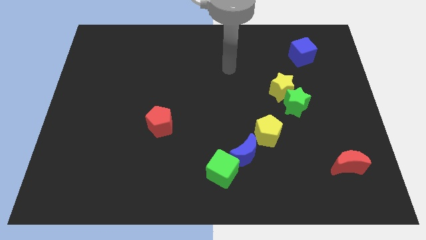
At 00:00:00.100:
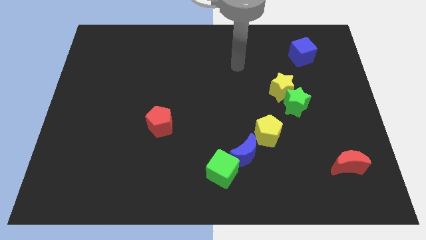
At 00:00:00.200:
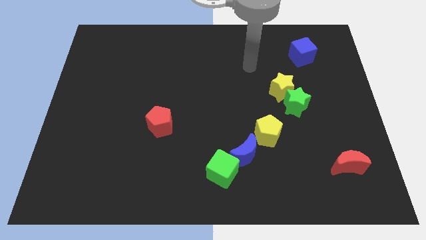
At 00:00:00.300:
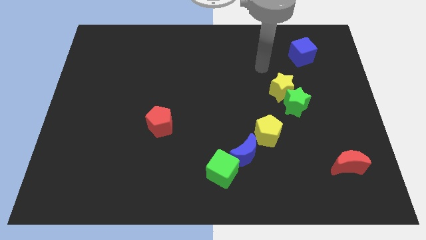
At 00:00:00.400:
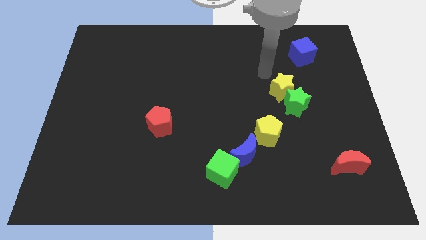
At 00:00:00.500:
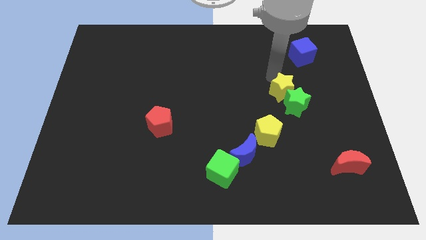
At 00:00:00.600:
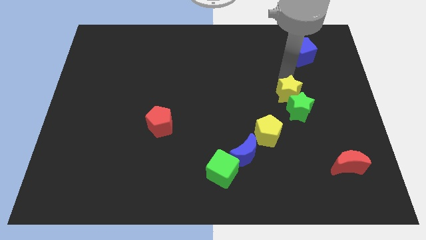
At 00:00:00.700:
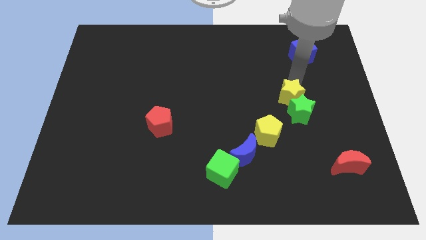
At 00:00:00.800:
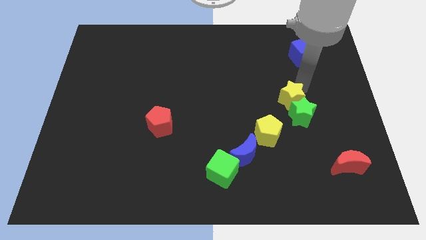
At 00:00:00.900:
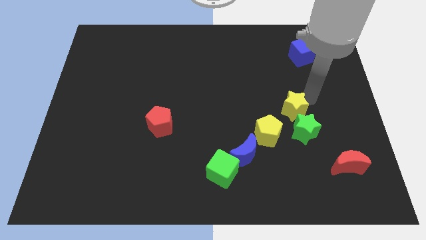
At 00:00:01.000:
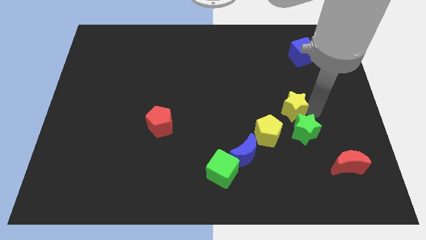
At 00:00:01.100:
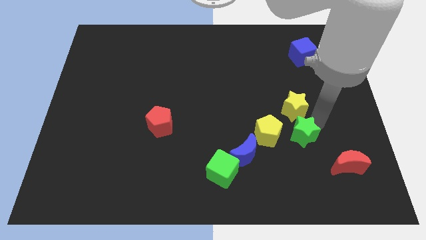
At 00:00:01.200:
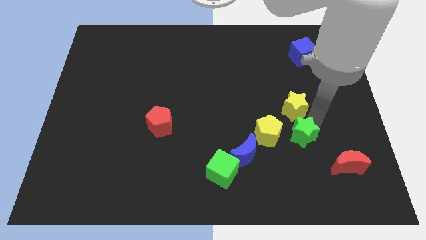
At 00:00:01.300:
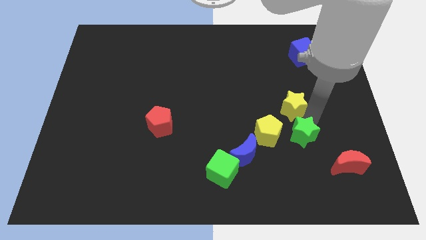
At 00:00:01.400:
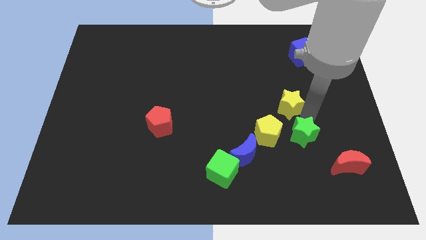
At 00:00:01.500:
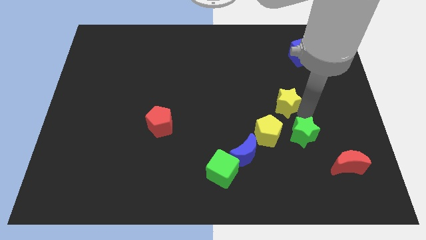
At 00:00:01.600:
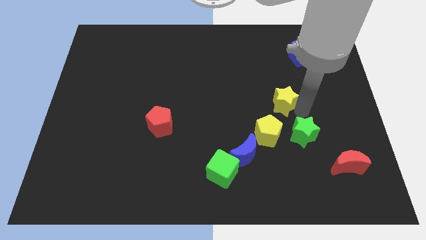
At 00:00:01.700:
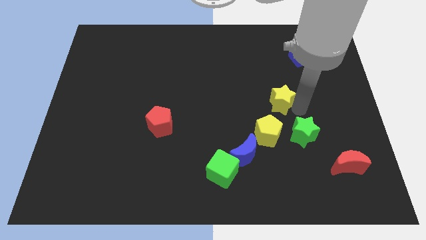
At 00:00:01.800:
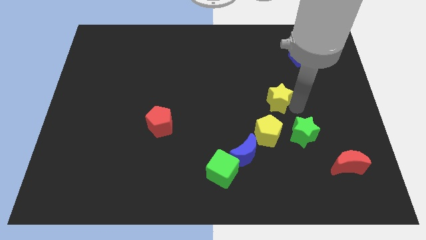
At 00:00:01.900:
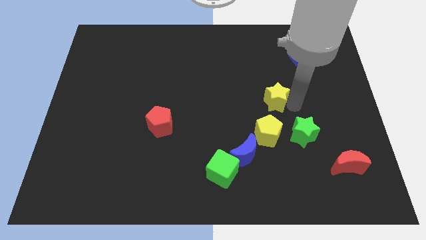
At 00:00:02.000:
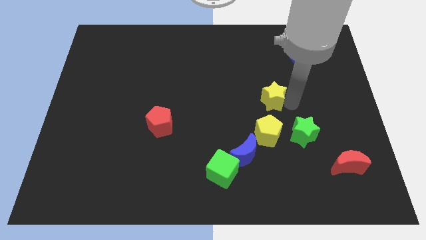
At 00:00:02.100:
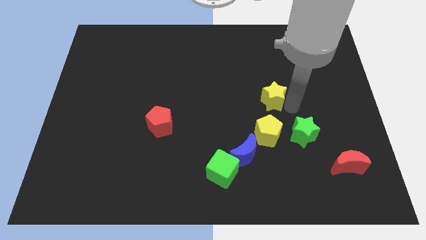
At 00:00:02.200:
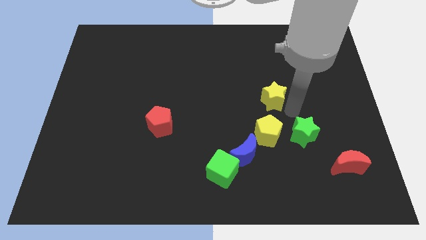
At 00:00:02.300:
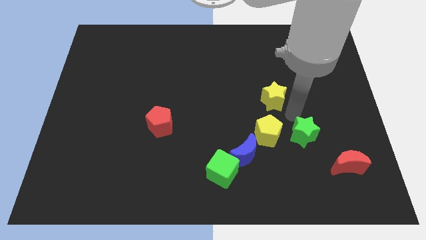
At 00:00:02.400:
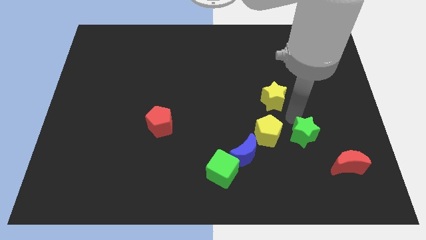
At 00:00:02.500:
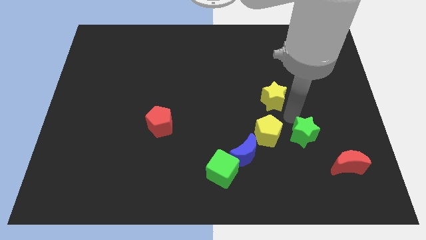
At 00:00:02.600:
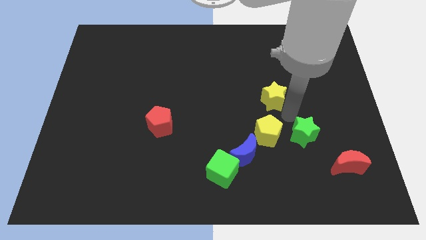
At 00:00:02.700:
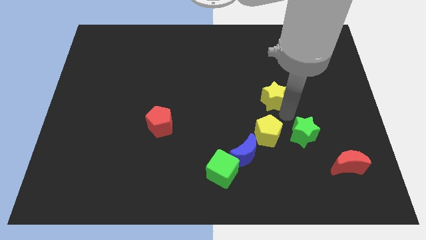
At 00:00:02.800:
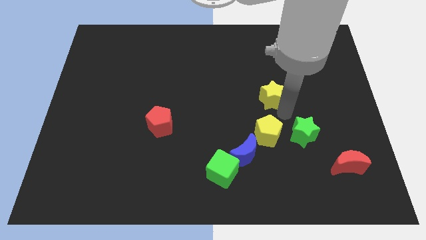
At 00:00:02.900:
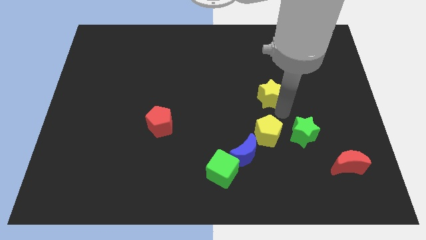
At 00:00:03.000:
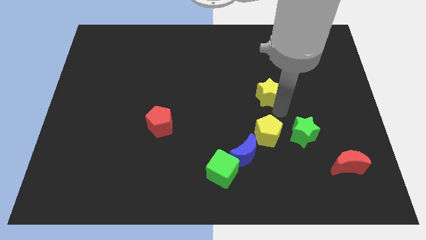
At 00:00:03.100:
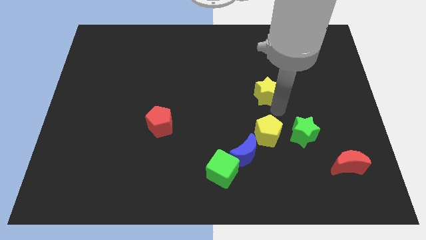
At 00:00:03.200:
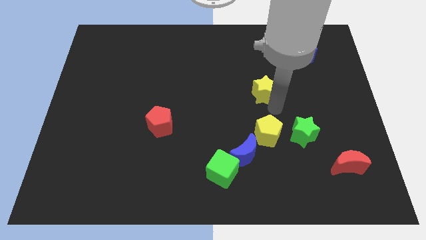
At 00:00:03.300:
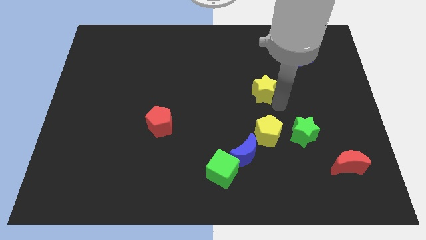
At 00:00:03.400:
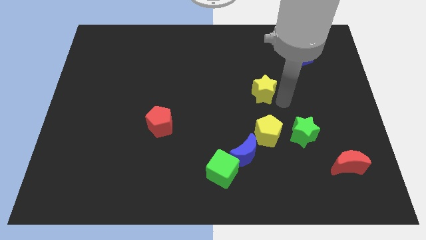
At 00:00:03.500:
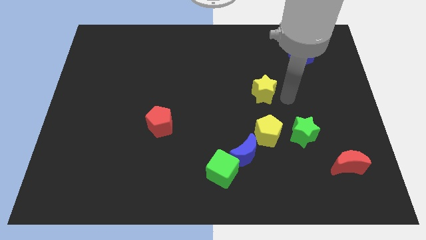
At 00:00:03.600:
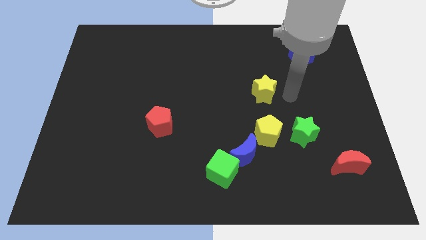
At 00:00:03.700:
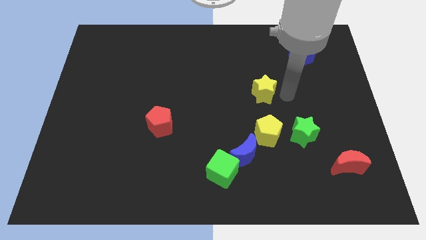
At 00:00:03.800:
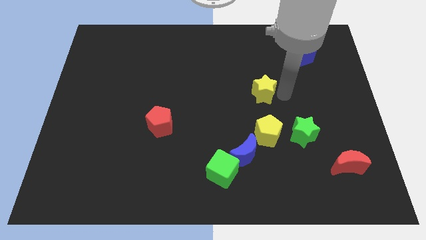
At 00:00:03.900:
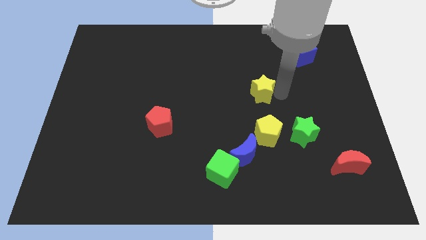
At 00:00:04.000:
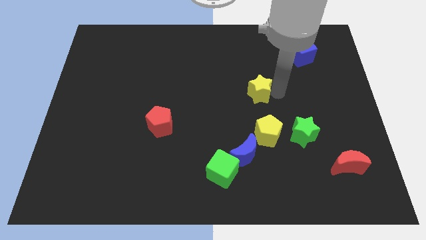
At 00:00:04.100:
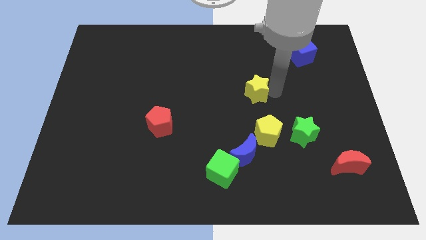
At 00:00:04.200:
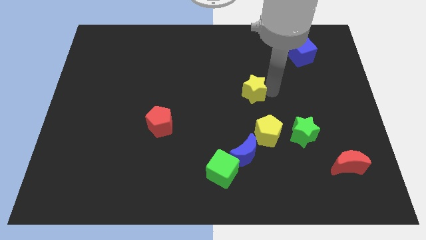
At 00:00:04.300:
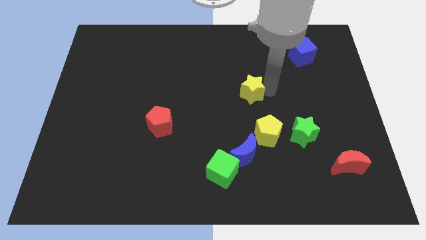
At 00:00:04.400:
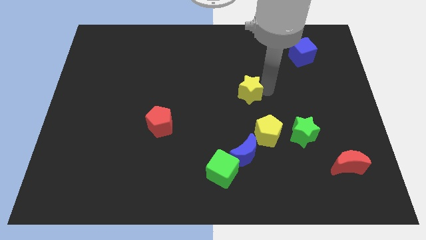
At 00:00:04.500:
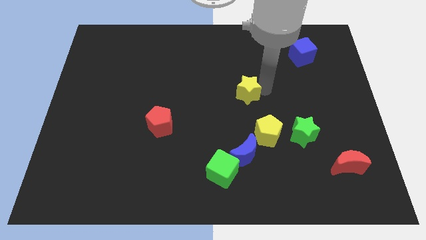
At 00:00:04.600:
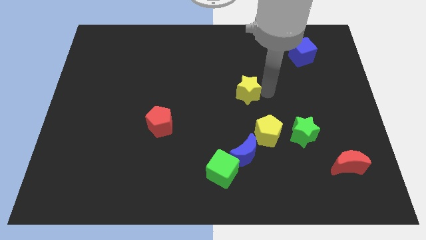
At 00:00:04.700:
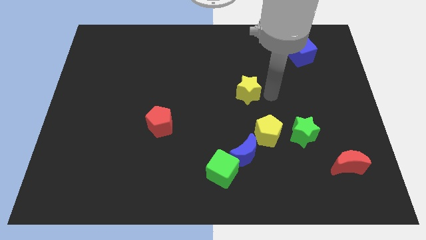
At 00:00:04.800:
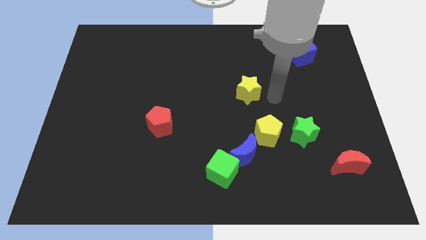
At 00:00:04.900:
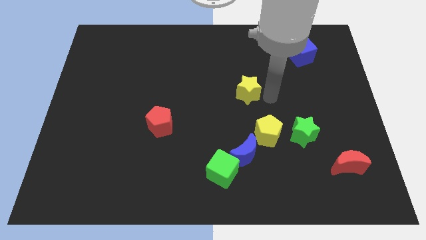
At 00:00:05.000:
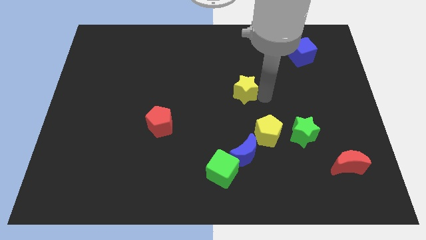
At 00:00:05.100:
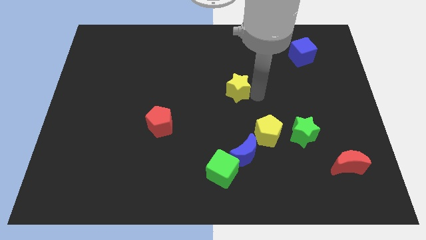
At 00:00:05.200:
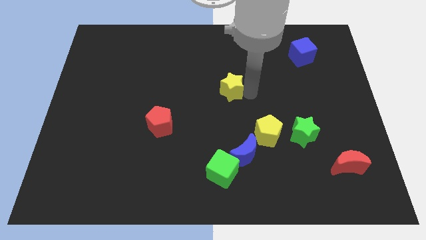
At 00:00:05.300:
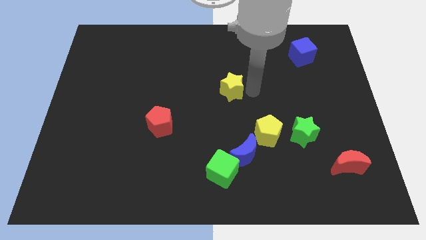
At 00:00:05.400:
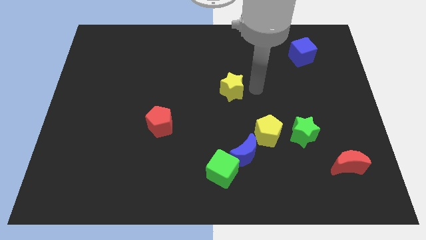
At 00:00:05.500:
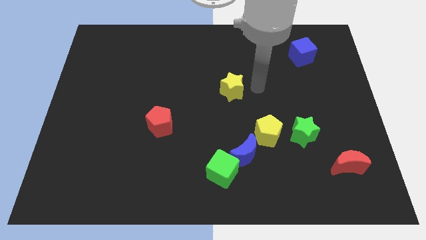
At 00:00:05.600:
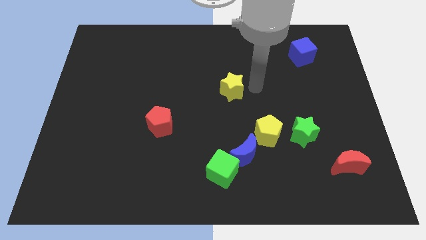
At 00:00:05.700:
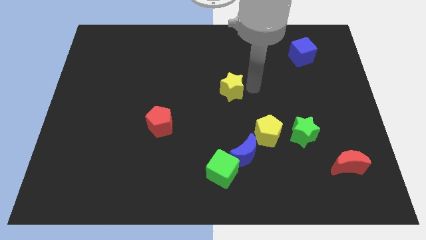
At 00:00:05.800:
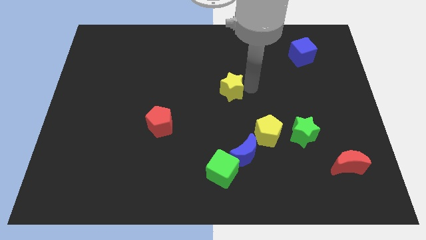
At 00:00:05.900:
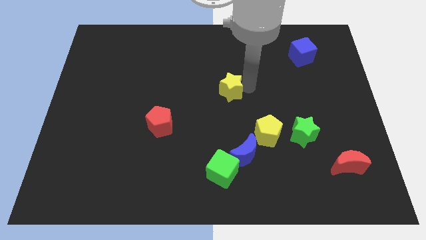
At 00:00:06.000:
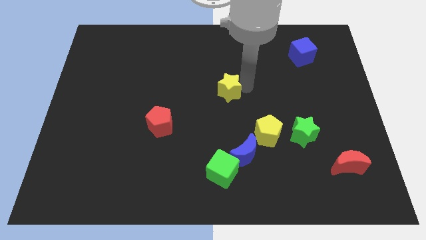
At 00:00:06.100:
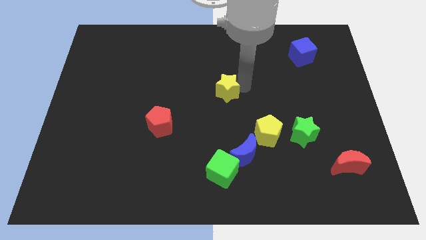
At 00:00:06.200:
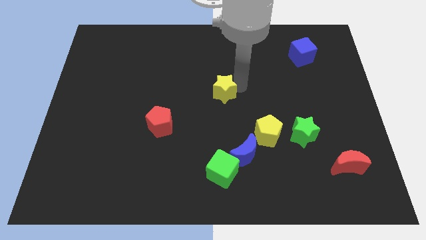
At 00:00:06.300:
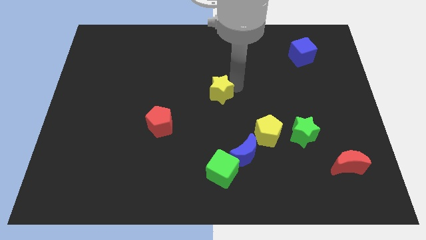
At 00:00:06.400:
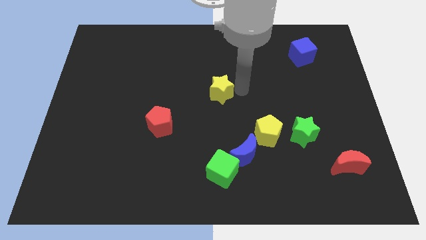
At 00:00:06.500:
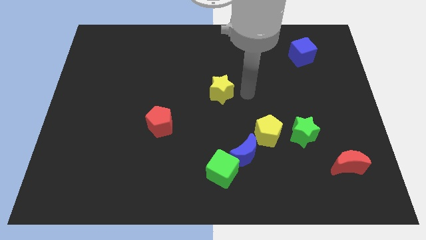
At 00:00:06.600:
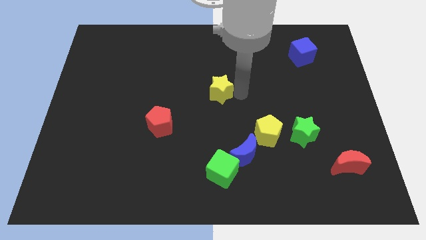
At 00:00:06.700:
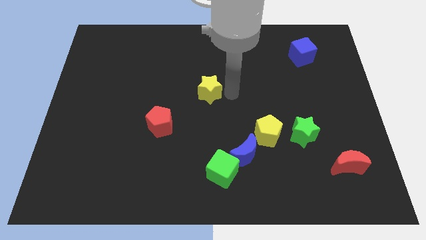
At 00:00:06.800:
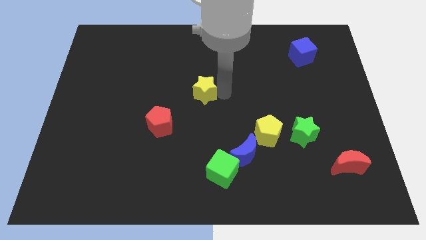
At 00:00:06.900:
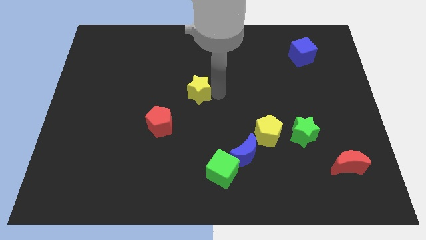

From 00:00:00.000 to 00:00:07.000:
push the yellow star to the left

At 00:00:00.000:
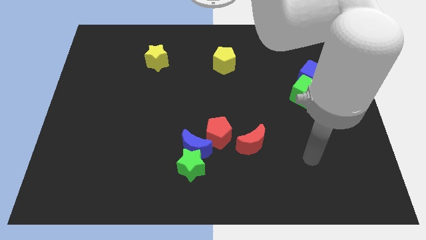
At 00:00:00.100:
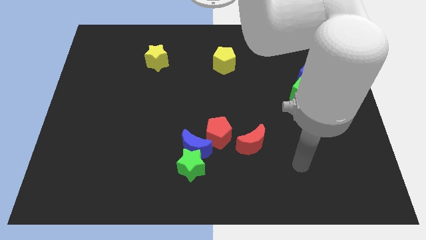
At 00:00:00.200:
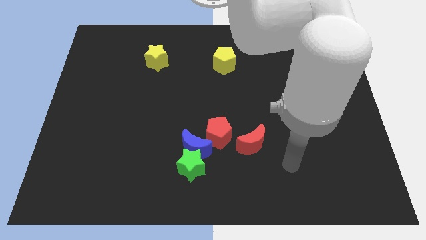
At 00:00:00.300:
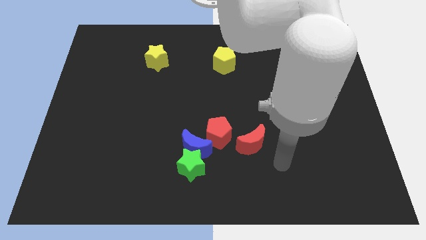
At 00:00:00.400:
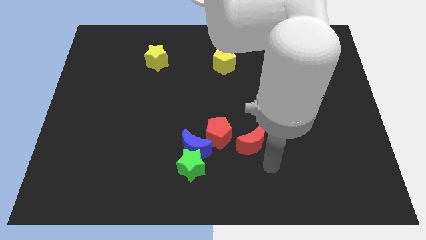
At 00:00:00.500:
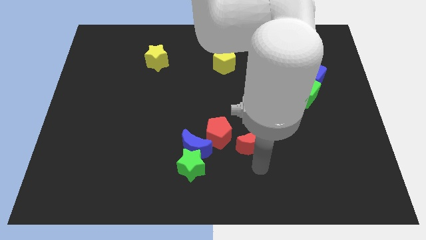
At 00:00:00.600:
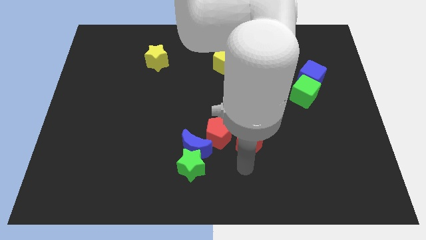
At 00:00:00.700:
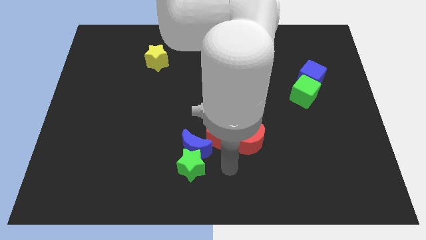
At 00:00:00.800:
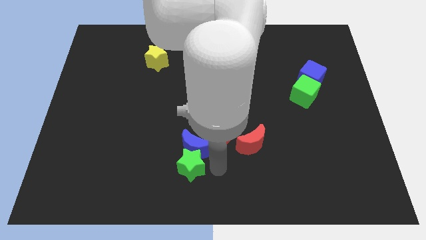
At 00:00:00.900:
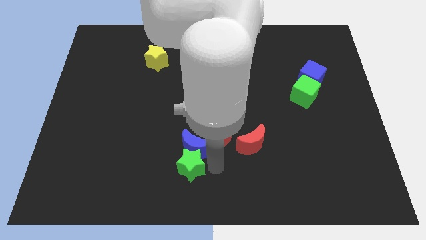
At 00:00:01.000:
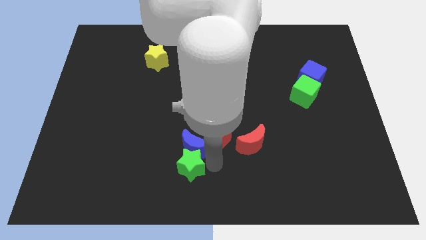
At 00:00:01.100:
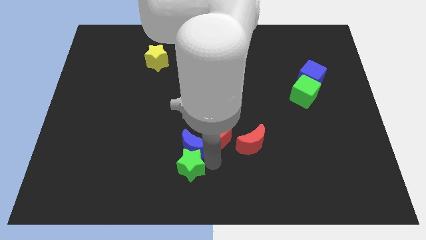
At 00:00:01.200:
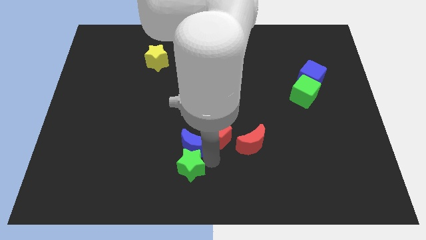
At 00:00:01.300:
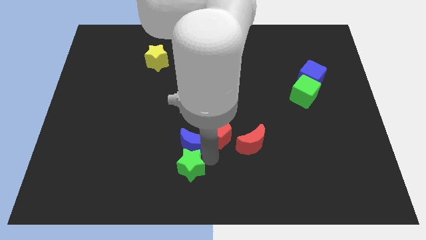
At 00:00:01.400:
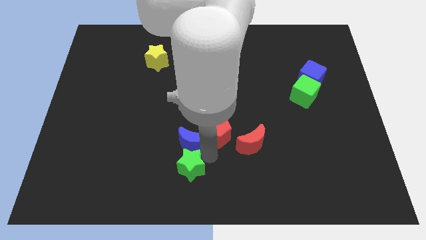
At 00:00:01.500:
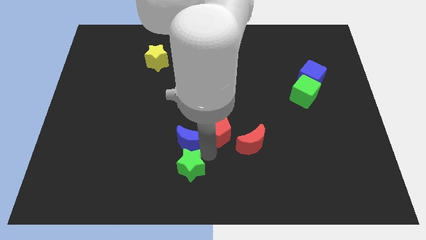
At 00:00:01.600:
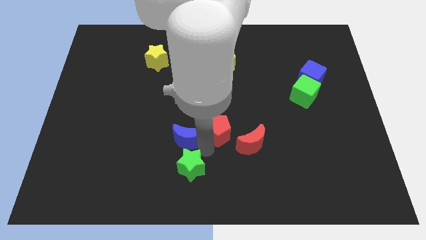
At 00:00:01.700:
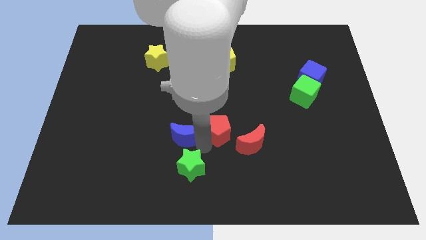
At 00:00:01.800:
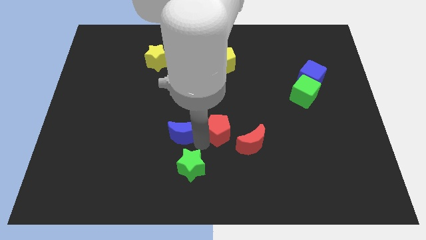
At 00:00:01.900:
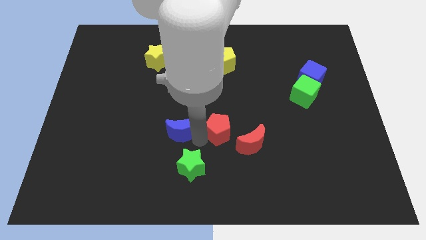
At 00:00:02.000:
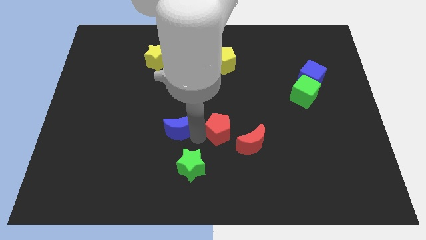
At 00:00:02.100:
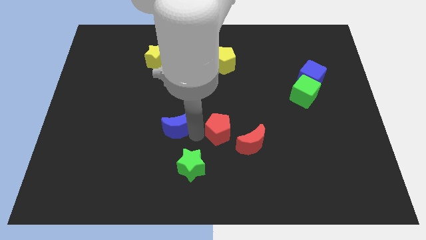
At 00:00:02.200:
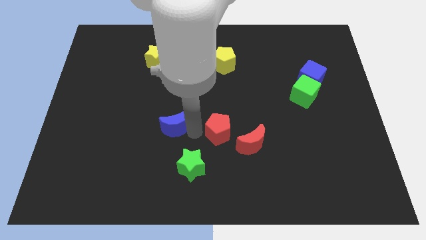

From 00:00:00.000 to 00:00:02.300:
move the blue moon a little bit diagonally upwards and to the left
